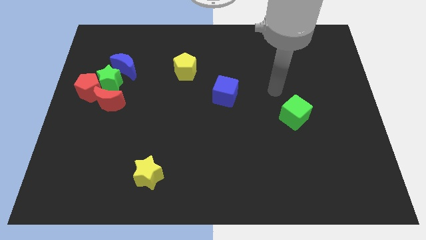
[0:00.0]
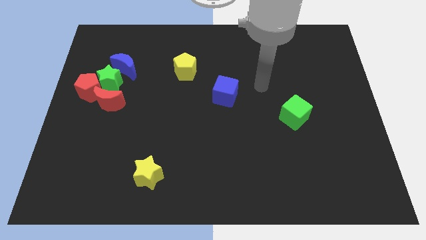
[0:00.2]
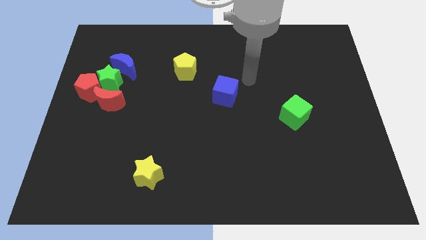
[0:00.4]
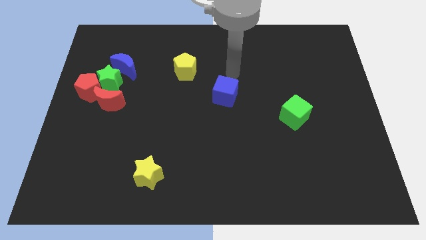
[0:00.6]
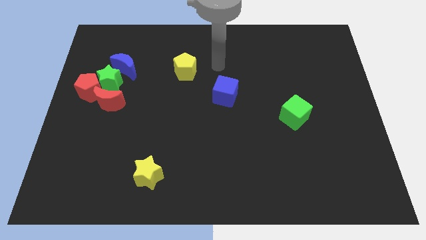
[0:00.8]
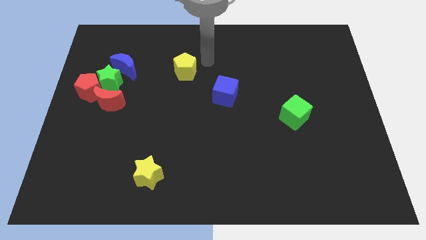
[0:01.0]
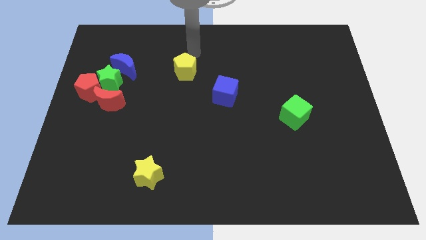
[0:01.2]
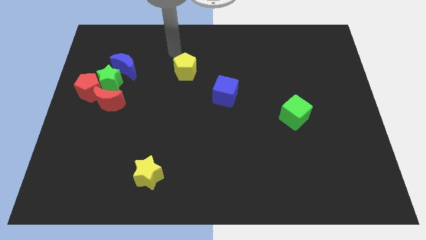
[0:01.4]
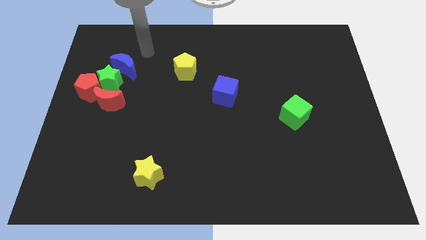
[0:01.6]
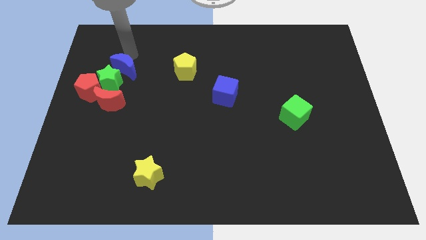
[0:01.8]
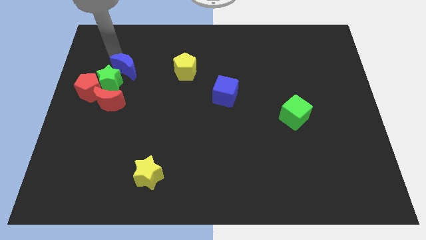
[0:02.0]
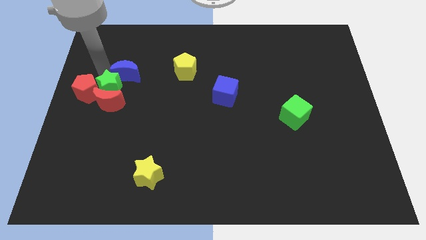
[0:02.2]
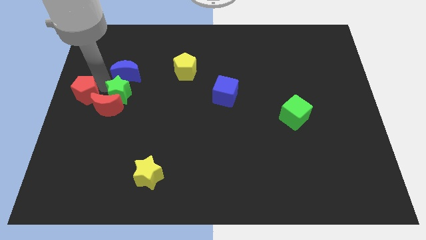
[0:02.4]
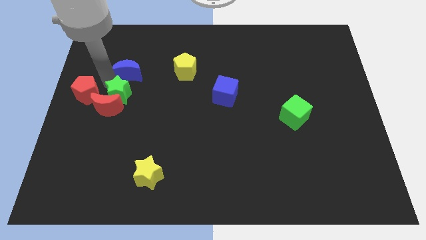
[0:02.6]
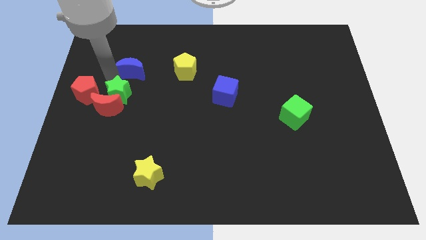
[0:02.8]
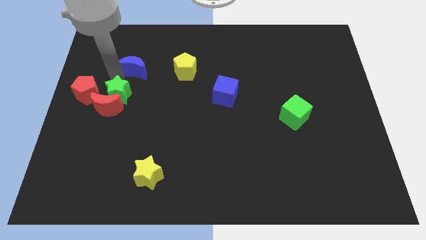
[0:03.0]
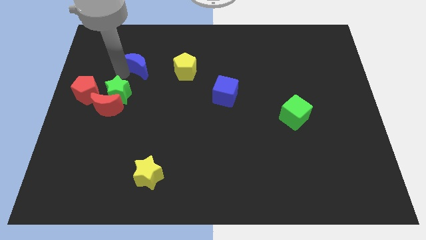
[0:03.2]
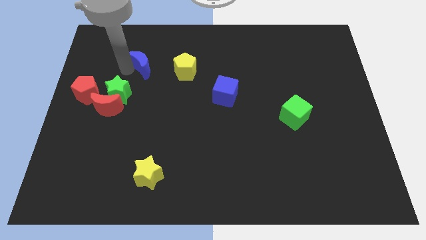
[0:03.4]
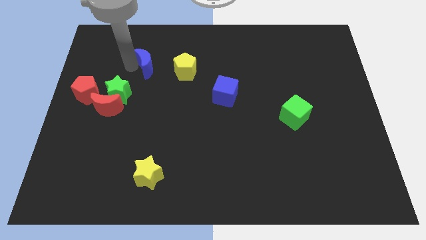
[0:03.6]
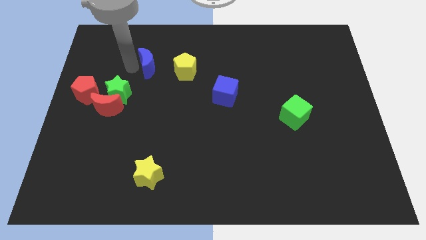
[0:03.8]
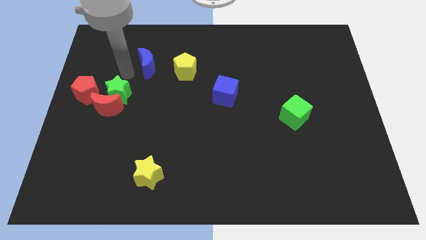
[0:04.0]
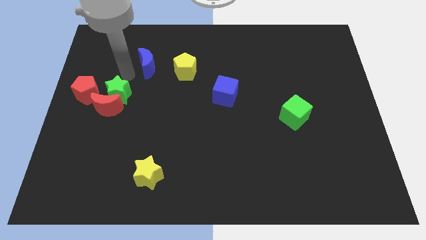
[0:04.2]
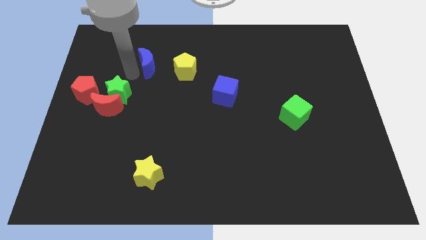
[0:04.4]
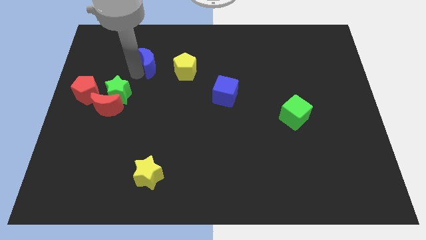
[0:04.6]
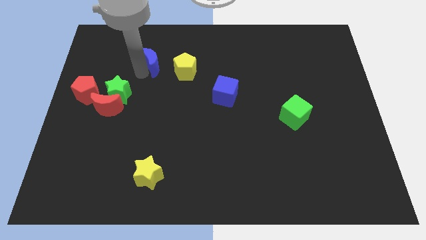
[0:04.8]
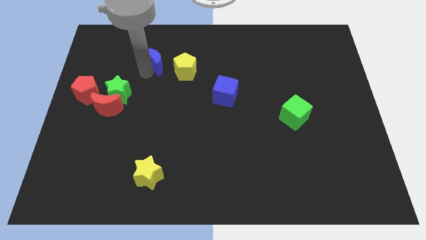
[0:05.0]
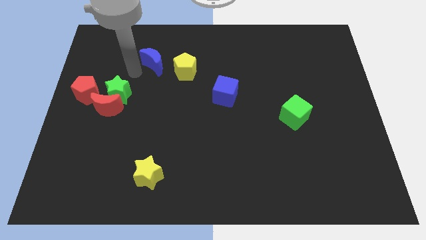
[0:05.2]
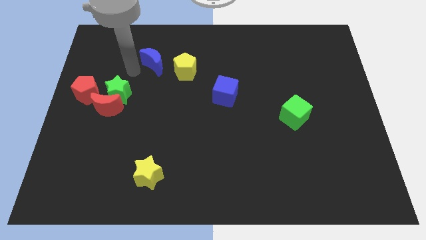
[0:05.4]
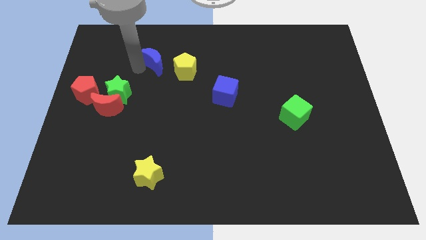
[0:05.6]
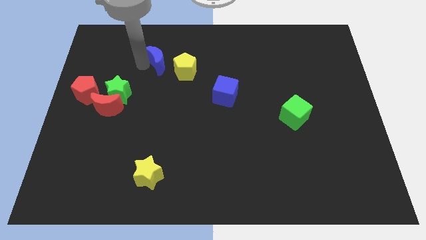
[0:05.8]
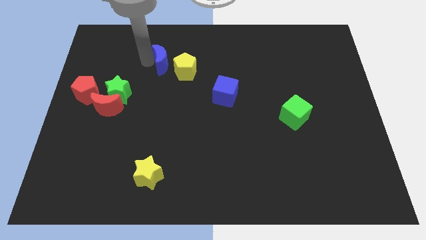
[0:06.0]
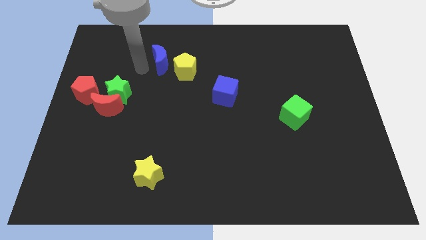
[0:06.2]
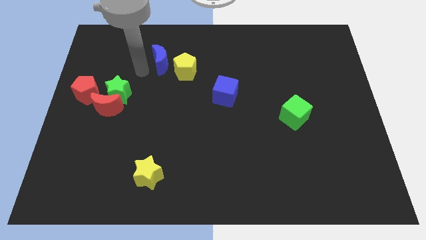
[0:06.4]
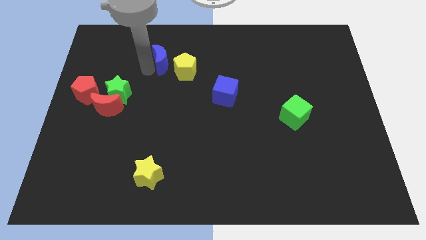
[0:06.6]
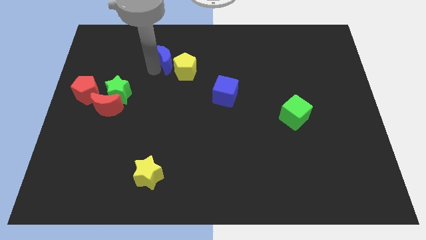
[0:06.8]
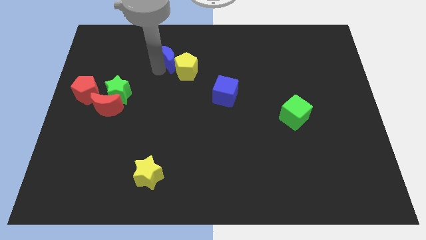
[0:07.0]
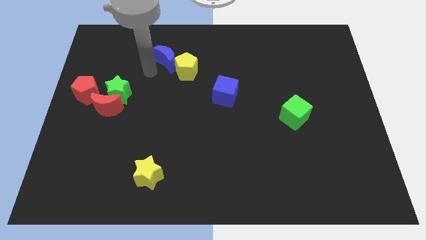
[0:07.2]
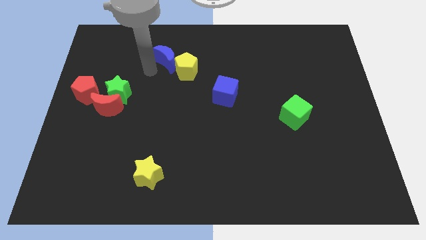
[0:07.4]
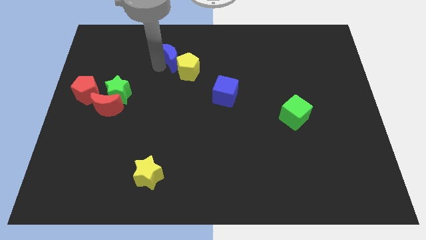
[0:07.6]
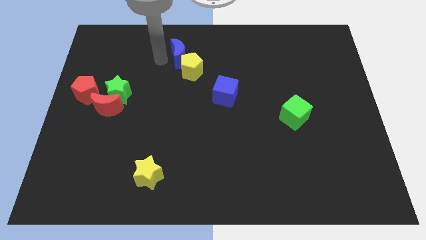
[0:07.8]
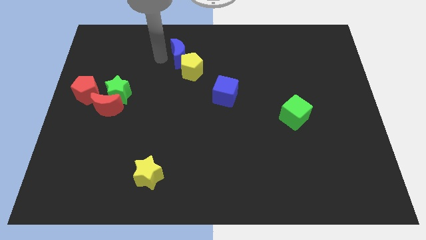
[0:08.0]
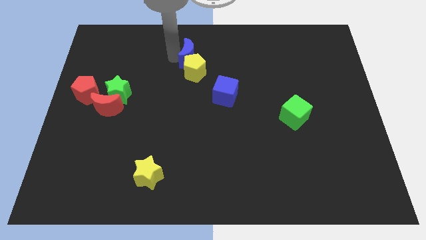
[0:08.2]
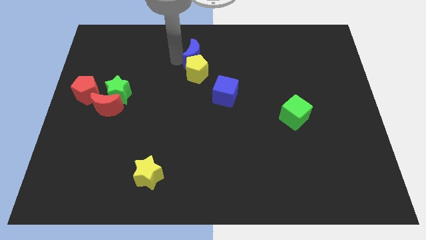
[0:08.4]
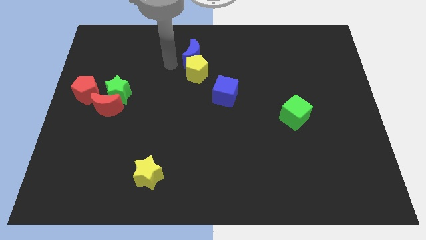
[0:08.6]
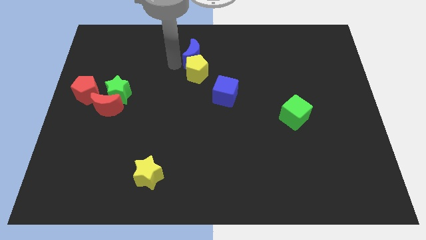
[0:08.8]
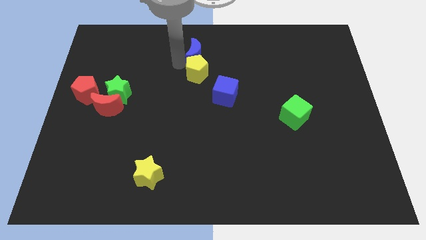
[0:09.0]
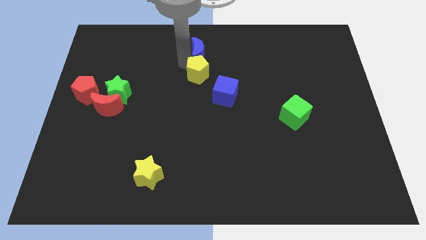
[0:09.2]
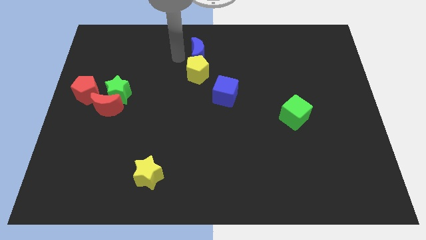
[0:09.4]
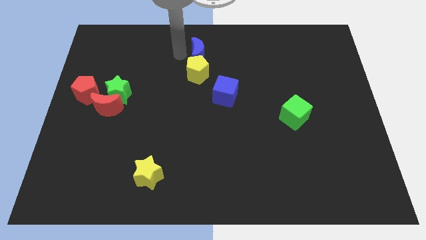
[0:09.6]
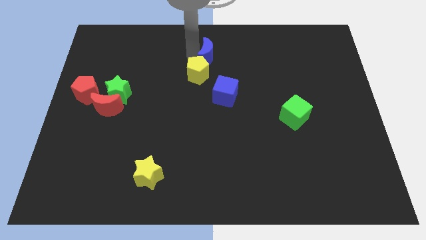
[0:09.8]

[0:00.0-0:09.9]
push the blue moon right

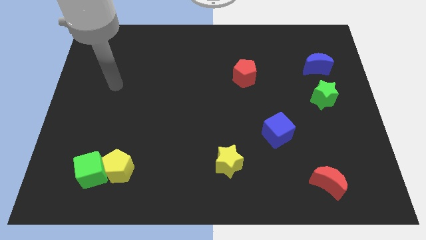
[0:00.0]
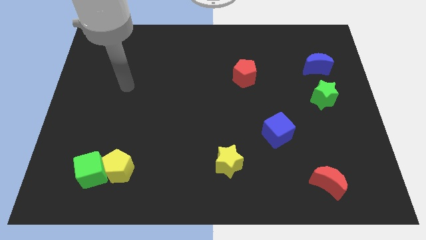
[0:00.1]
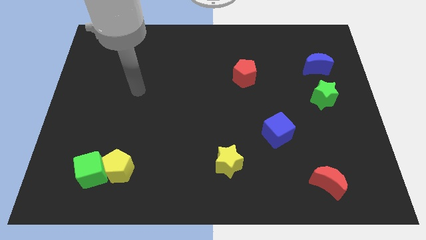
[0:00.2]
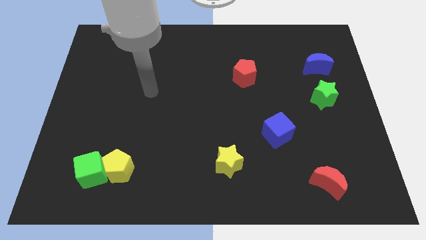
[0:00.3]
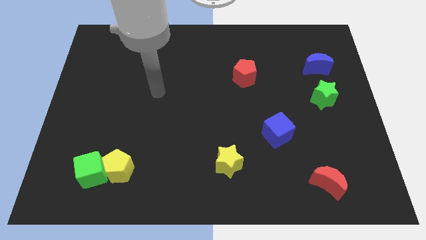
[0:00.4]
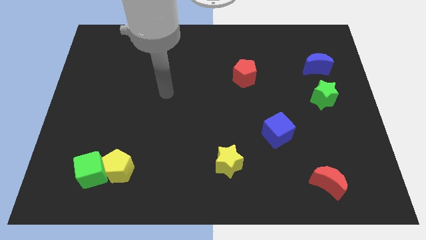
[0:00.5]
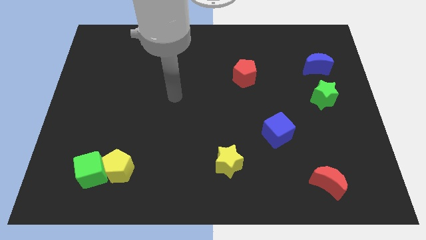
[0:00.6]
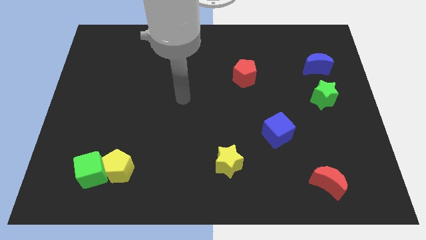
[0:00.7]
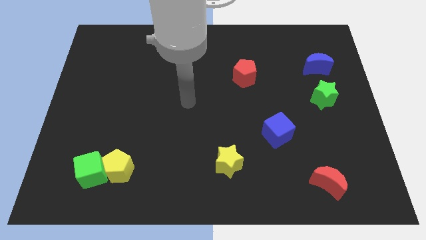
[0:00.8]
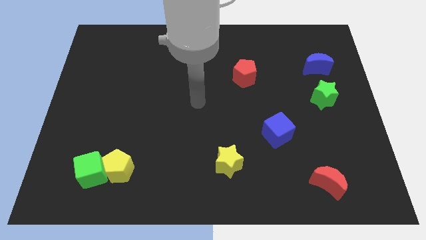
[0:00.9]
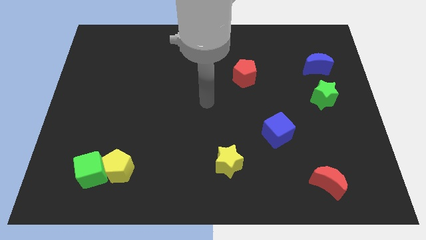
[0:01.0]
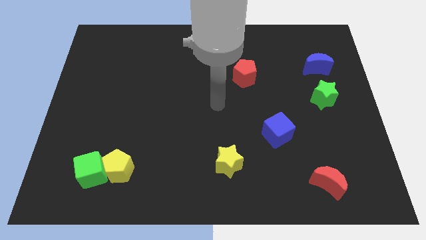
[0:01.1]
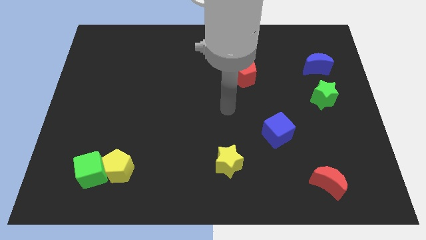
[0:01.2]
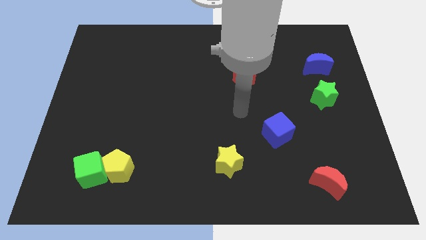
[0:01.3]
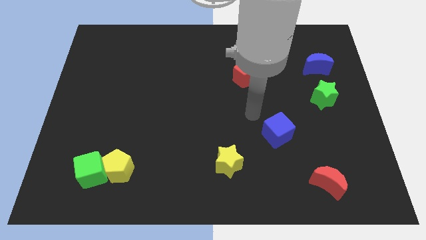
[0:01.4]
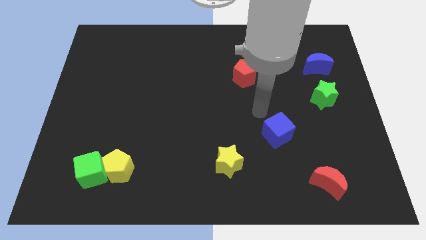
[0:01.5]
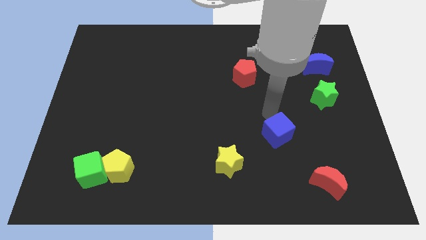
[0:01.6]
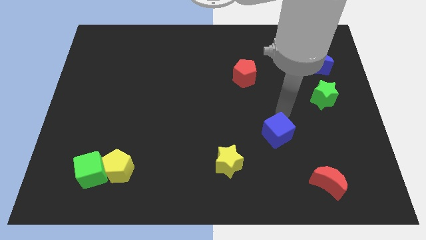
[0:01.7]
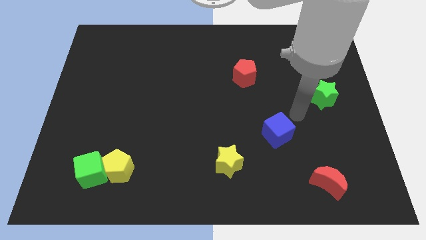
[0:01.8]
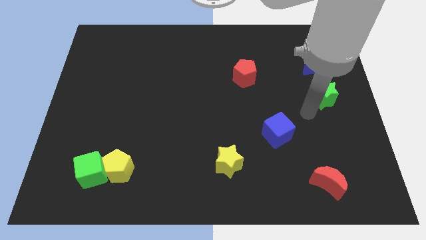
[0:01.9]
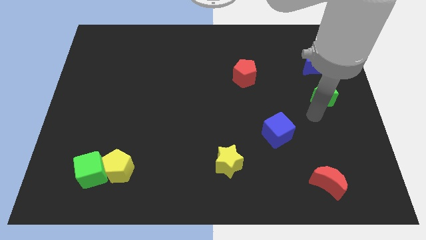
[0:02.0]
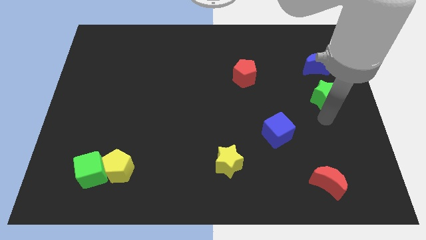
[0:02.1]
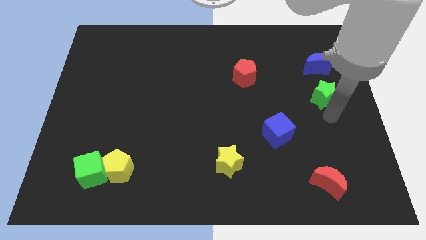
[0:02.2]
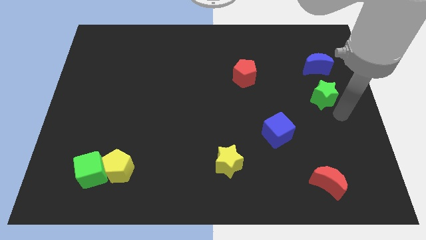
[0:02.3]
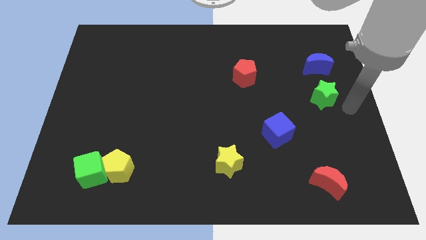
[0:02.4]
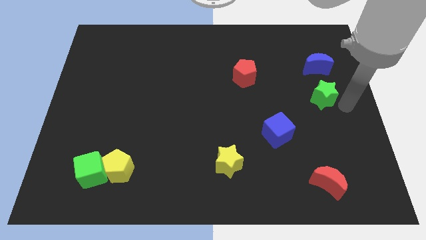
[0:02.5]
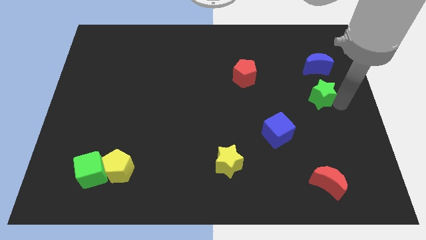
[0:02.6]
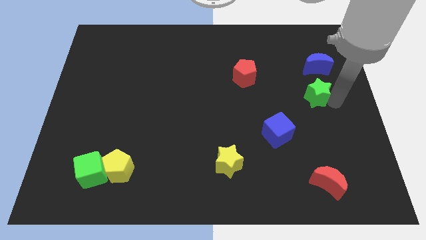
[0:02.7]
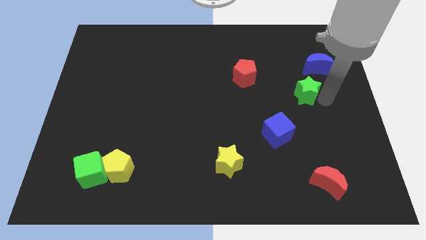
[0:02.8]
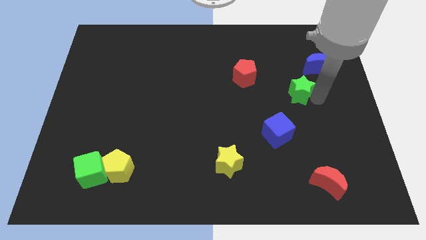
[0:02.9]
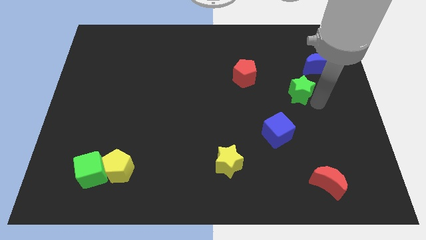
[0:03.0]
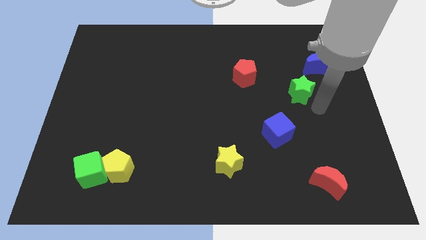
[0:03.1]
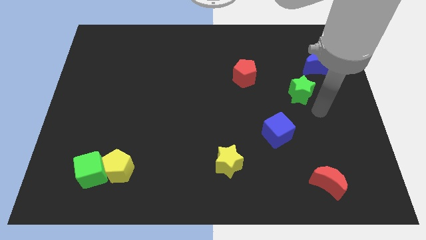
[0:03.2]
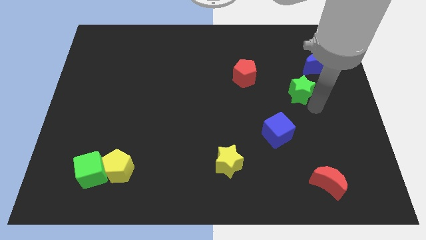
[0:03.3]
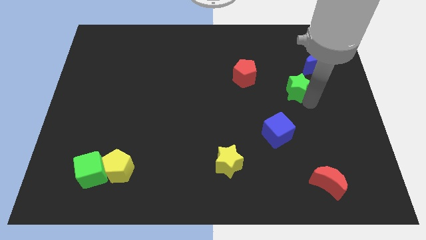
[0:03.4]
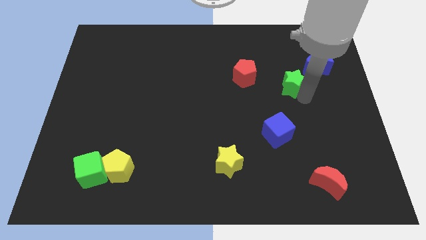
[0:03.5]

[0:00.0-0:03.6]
slide the green star a little bit up and to the left diagonally
